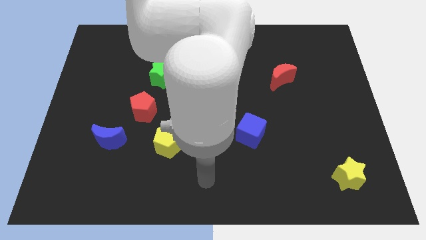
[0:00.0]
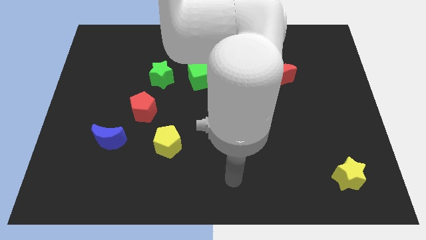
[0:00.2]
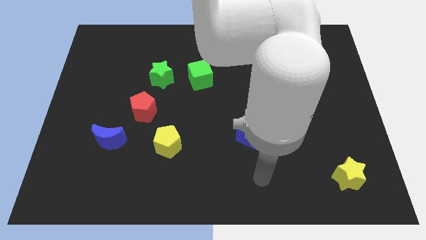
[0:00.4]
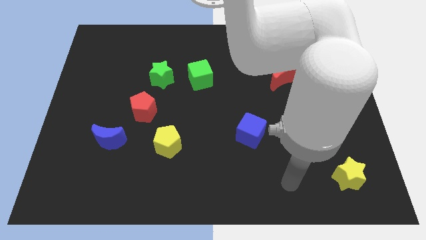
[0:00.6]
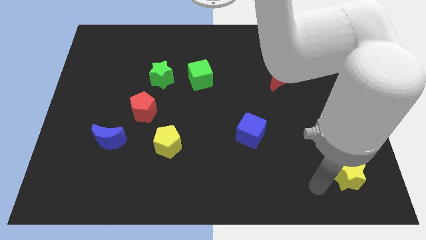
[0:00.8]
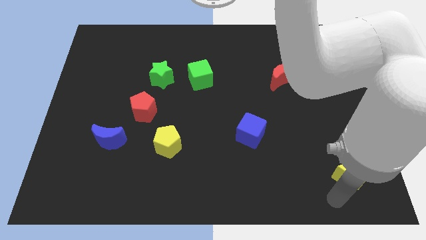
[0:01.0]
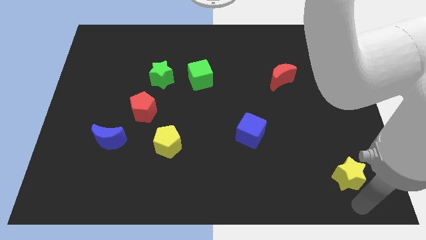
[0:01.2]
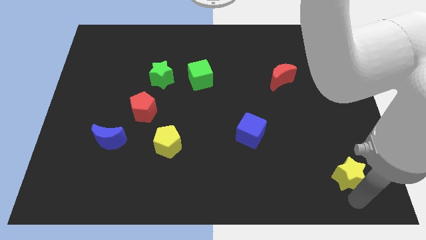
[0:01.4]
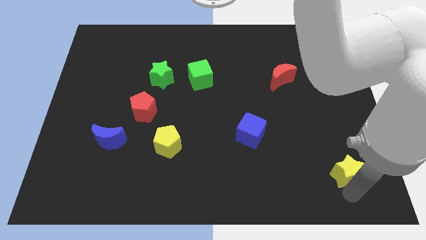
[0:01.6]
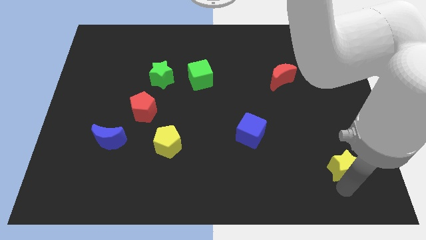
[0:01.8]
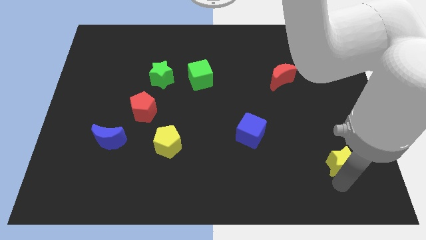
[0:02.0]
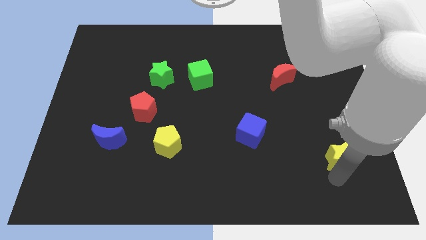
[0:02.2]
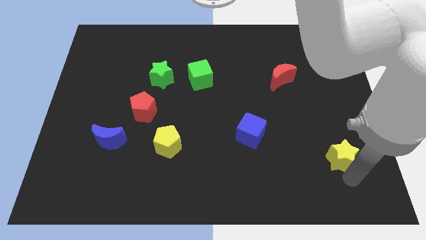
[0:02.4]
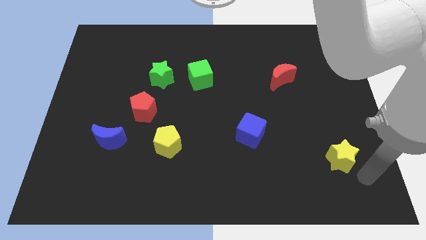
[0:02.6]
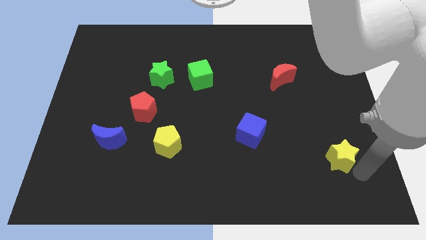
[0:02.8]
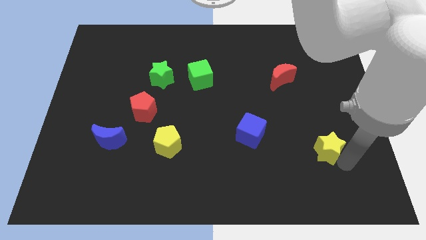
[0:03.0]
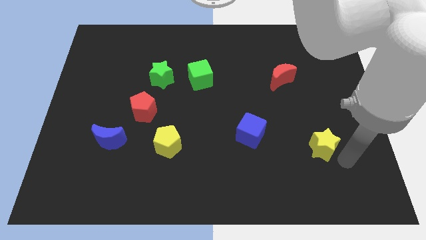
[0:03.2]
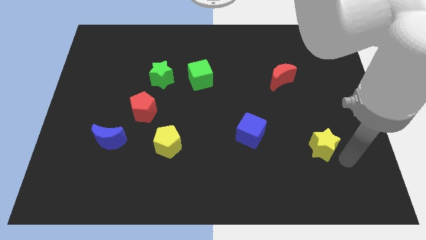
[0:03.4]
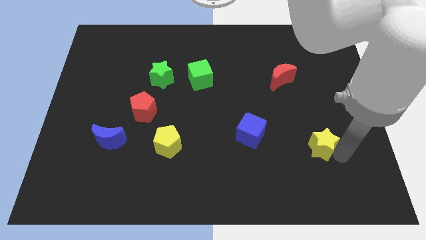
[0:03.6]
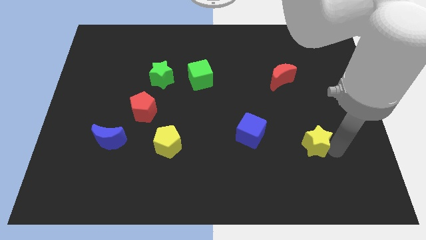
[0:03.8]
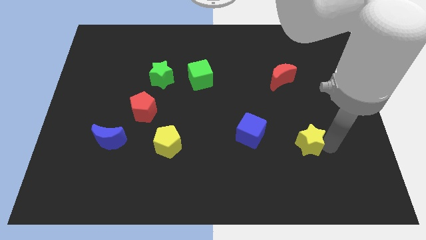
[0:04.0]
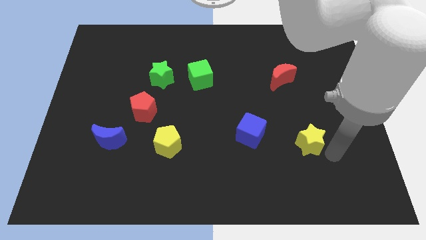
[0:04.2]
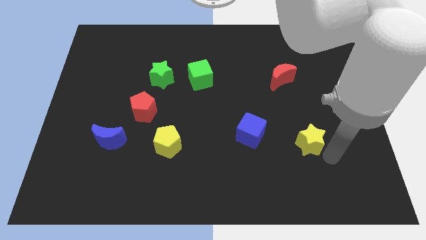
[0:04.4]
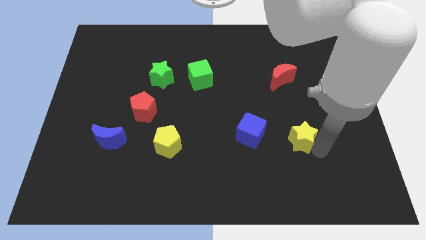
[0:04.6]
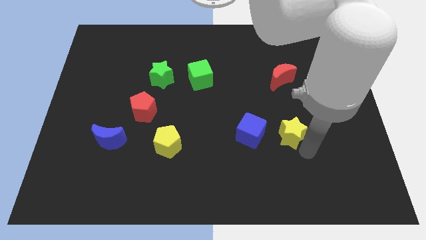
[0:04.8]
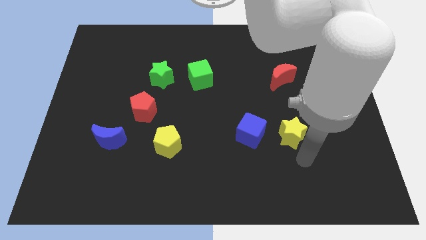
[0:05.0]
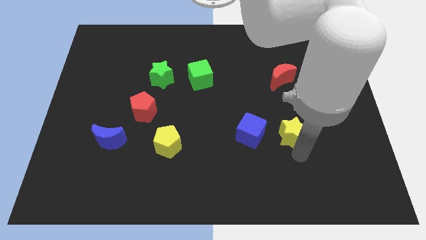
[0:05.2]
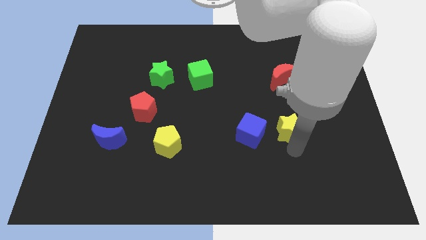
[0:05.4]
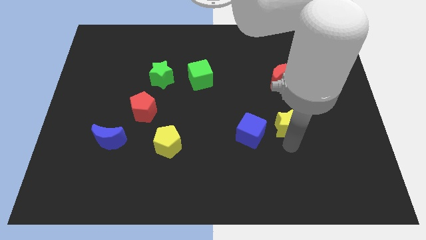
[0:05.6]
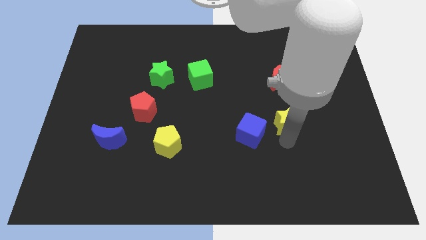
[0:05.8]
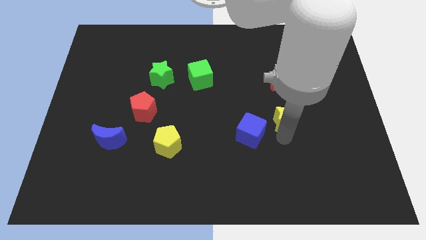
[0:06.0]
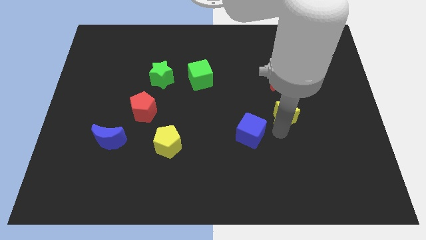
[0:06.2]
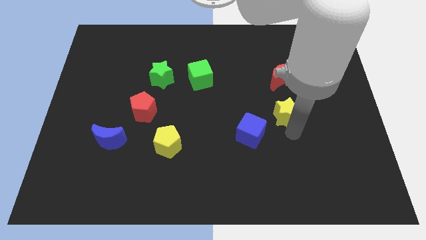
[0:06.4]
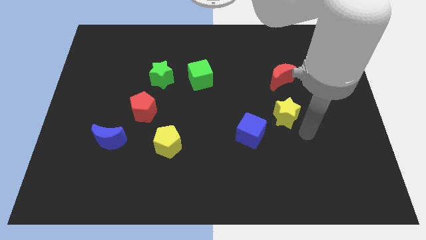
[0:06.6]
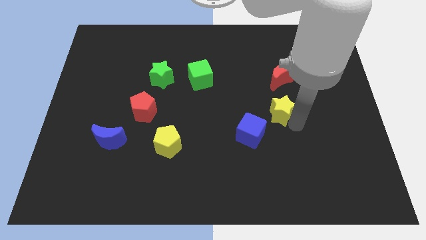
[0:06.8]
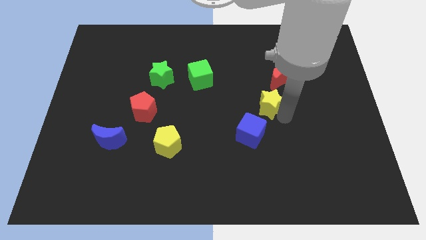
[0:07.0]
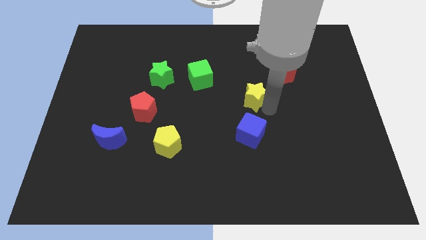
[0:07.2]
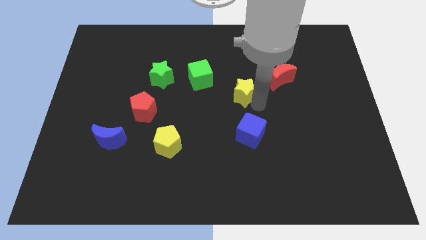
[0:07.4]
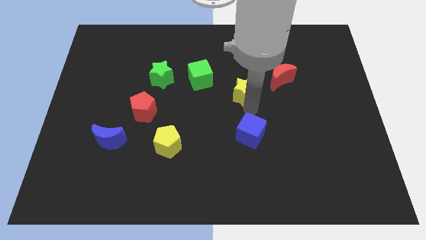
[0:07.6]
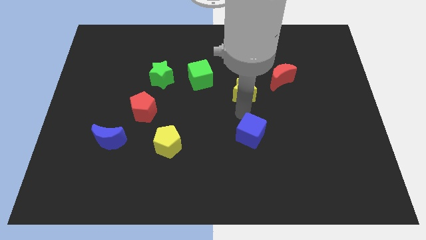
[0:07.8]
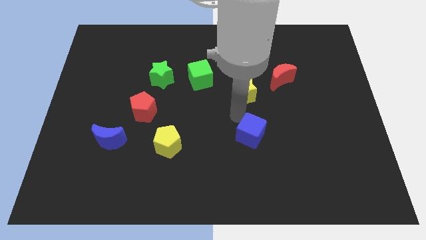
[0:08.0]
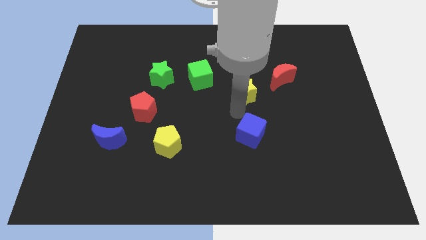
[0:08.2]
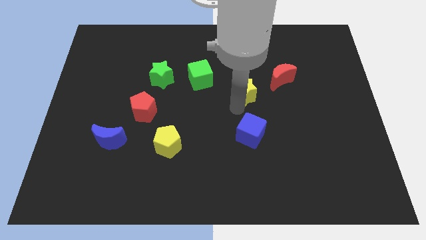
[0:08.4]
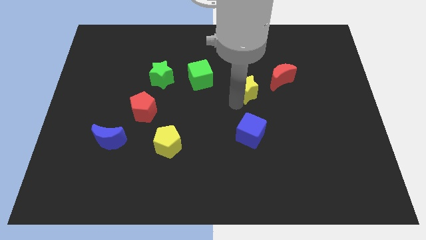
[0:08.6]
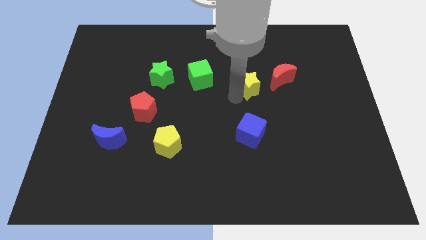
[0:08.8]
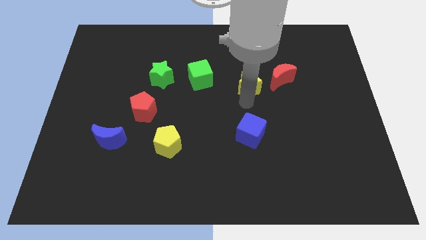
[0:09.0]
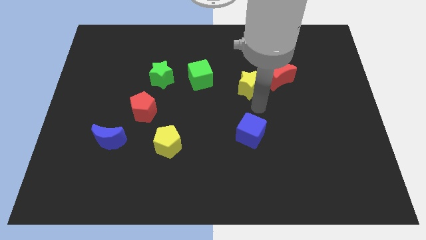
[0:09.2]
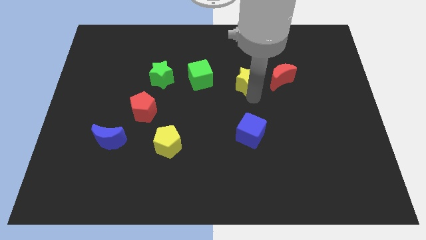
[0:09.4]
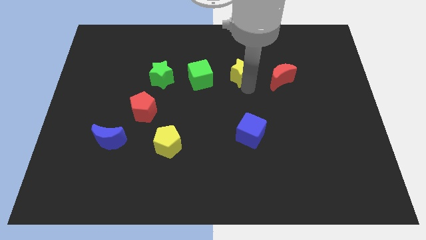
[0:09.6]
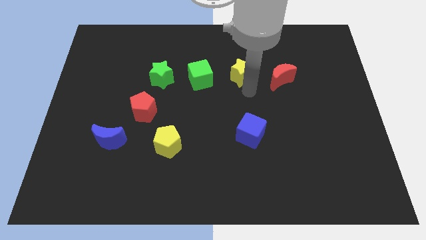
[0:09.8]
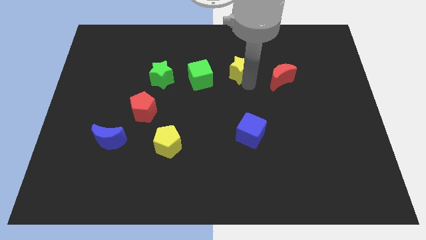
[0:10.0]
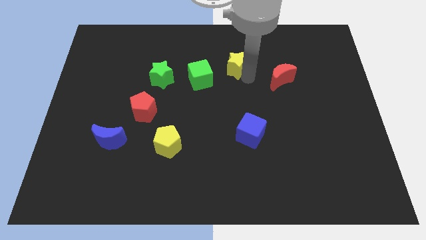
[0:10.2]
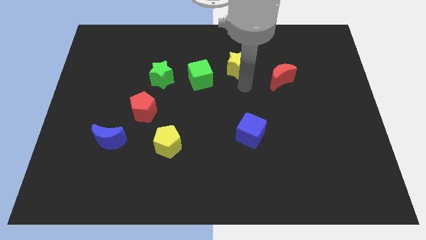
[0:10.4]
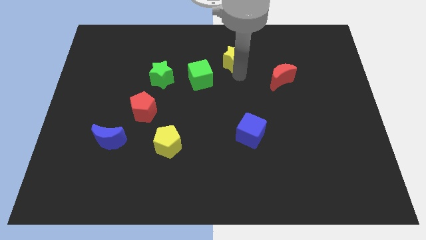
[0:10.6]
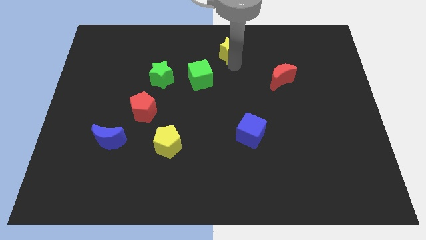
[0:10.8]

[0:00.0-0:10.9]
put the yellow star to the top side

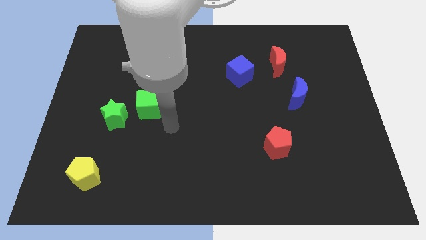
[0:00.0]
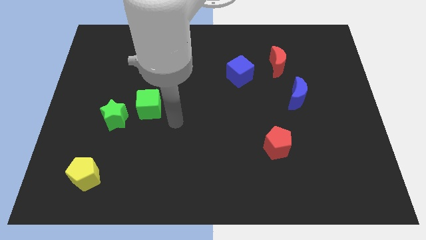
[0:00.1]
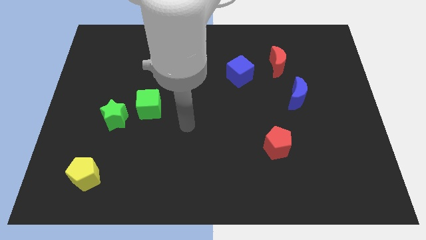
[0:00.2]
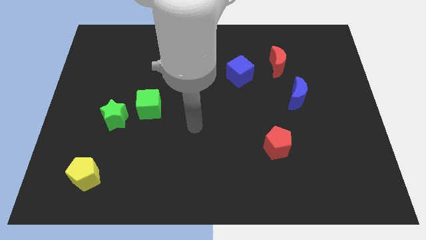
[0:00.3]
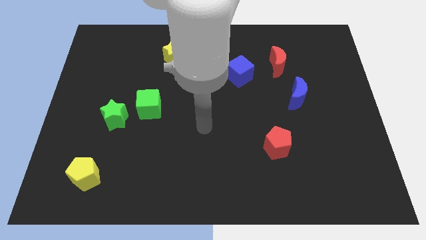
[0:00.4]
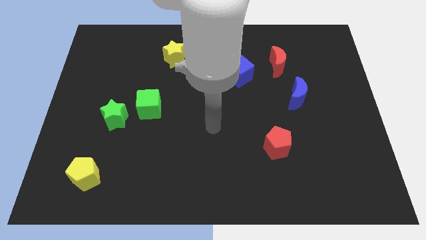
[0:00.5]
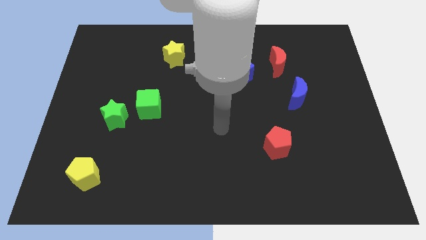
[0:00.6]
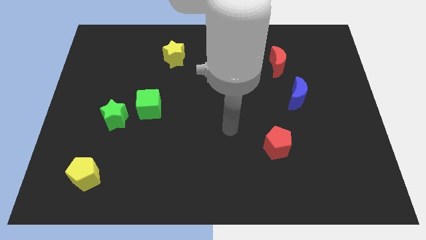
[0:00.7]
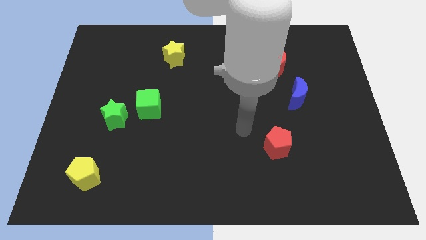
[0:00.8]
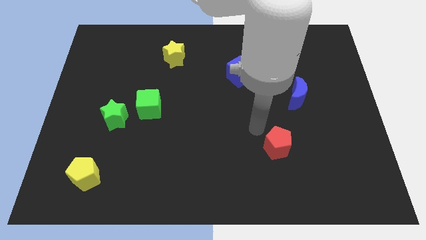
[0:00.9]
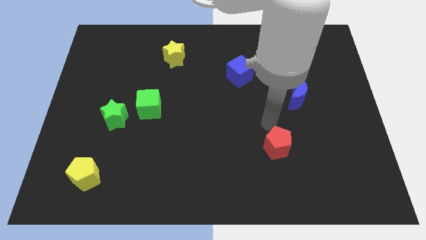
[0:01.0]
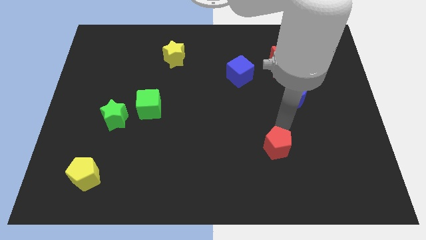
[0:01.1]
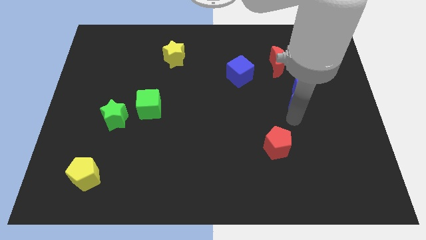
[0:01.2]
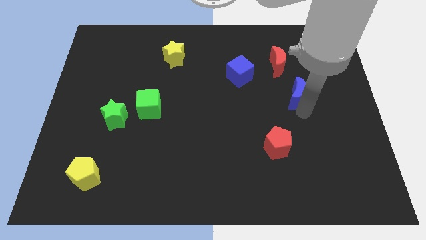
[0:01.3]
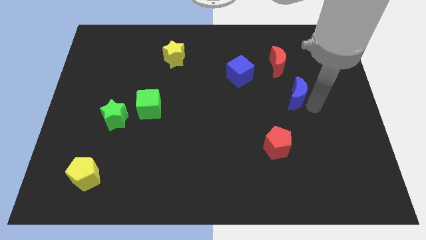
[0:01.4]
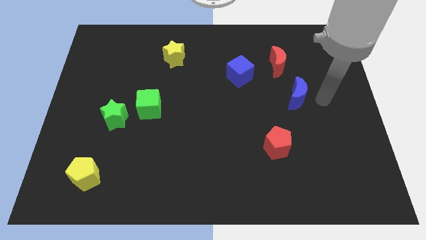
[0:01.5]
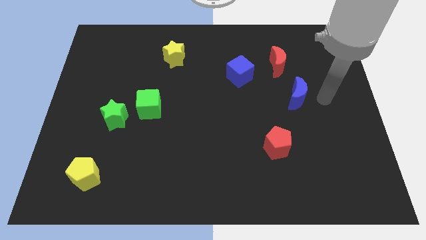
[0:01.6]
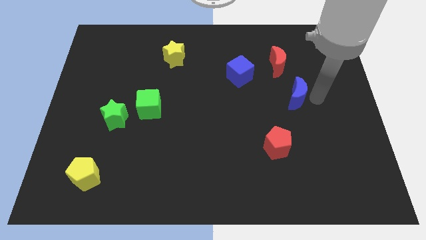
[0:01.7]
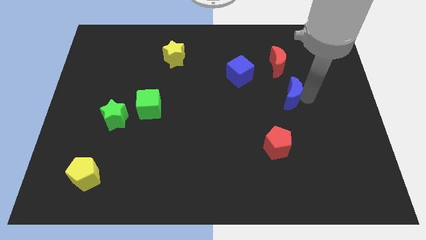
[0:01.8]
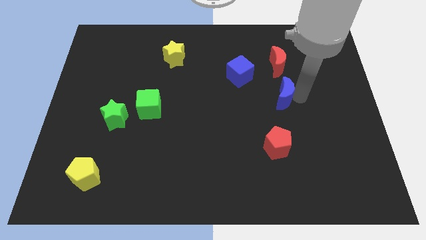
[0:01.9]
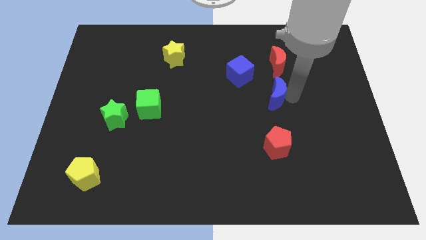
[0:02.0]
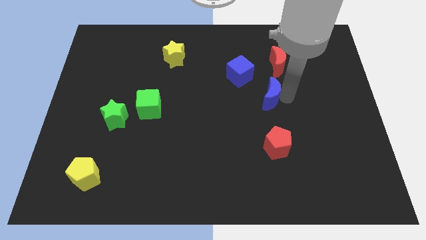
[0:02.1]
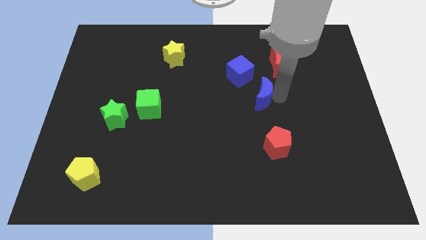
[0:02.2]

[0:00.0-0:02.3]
slide the blue moon to the middle
